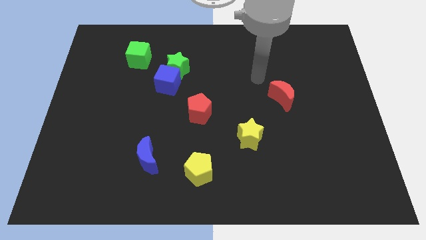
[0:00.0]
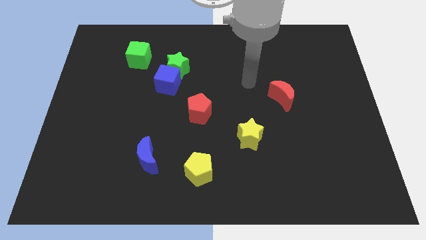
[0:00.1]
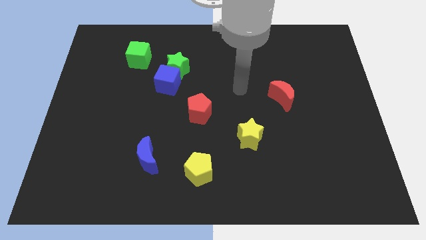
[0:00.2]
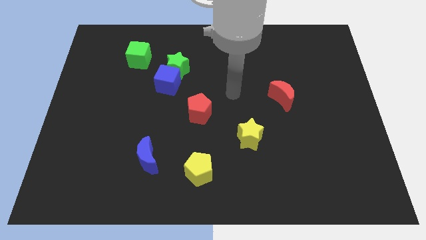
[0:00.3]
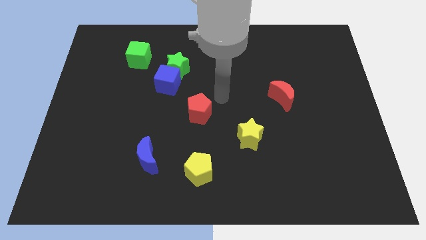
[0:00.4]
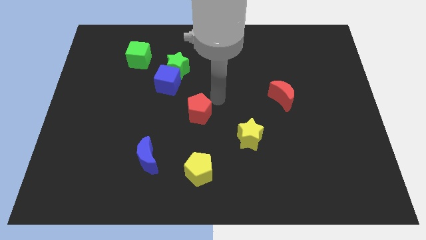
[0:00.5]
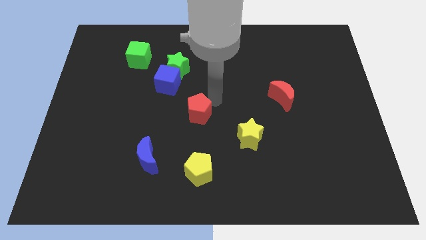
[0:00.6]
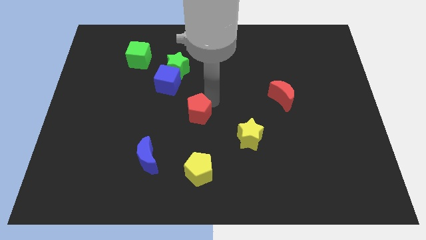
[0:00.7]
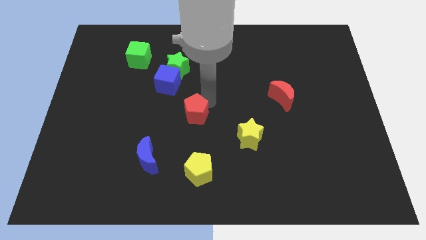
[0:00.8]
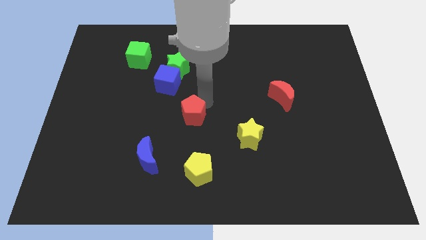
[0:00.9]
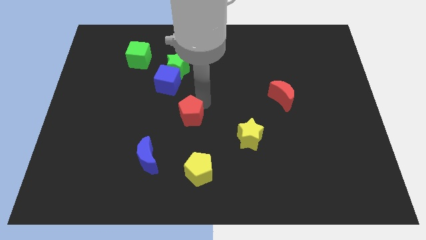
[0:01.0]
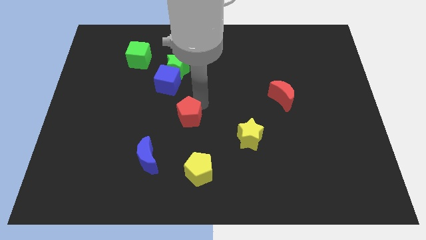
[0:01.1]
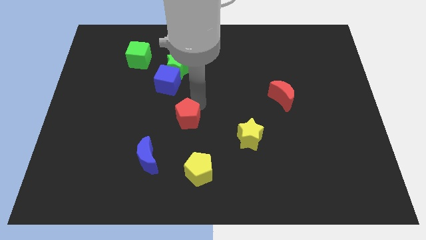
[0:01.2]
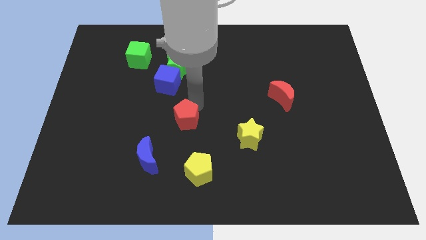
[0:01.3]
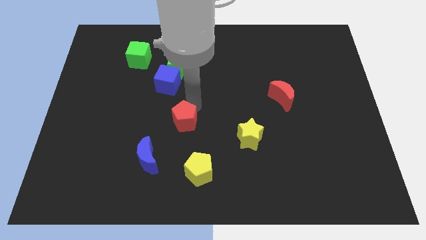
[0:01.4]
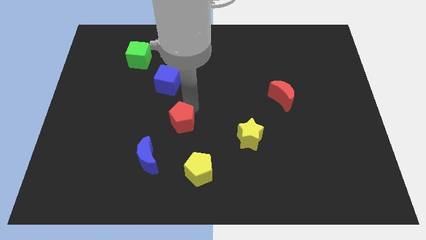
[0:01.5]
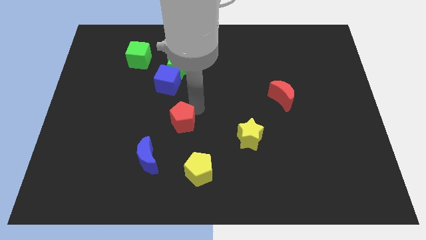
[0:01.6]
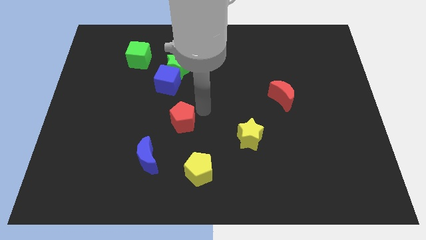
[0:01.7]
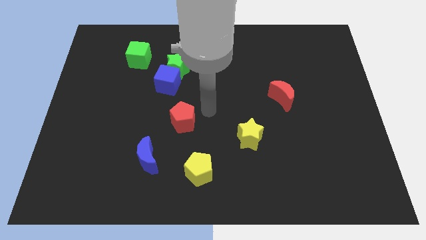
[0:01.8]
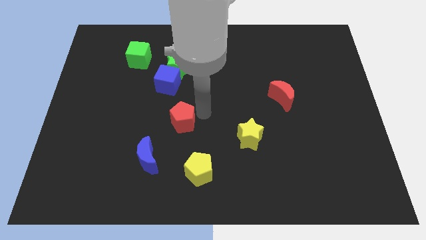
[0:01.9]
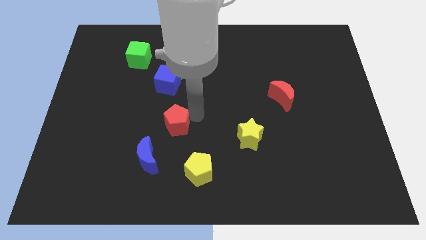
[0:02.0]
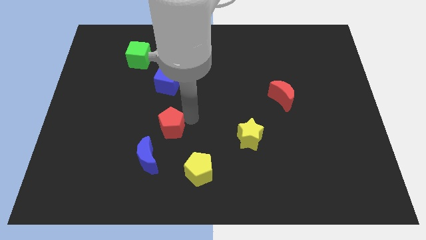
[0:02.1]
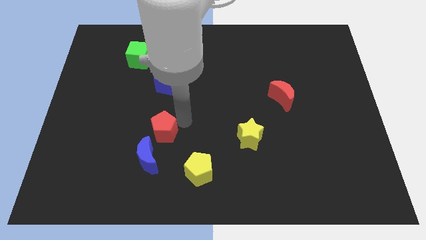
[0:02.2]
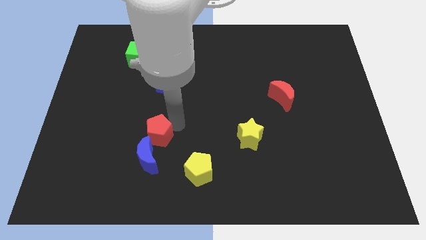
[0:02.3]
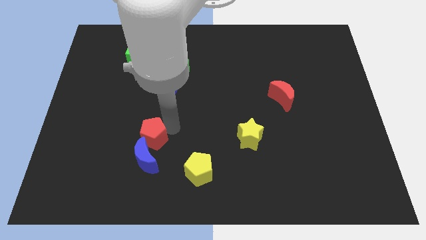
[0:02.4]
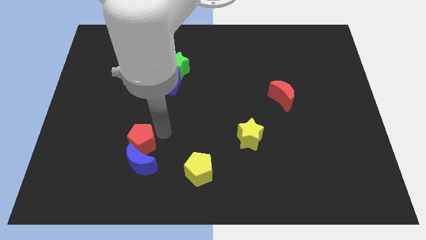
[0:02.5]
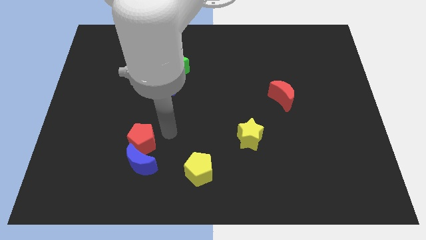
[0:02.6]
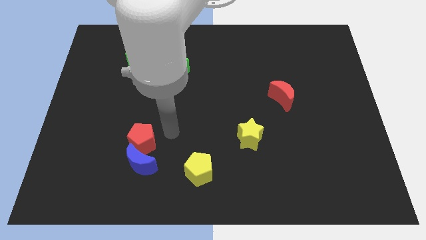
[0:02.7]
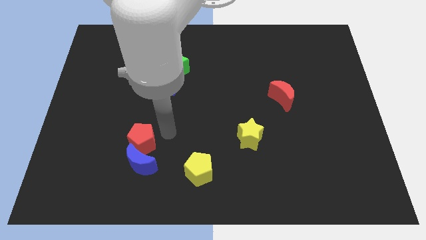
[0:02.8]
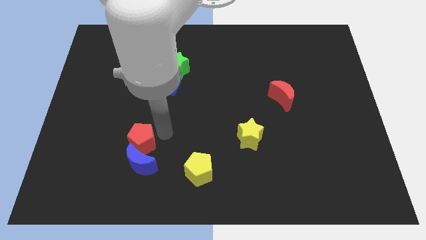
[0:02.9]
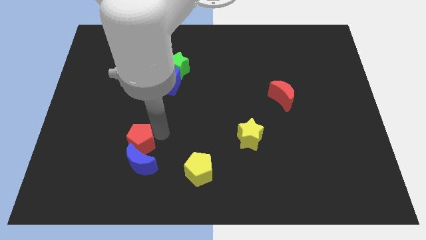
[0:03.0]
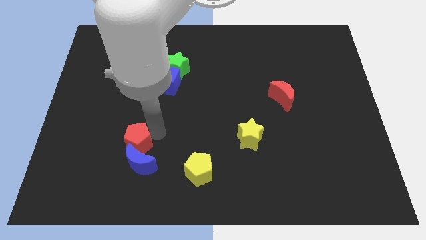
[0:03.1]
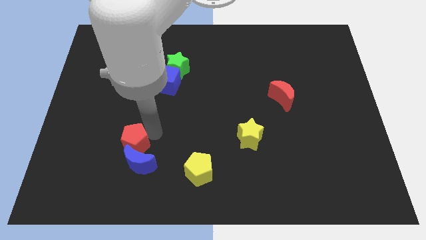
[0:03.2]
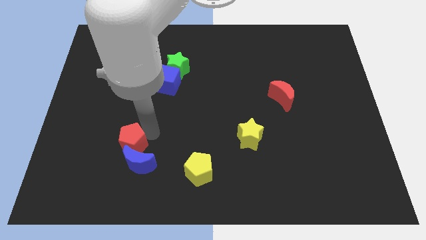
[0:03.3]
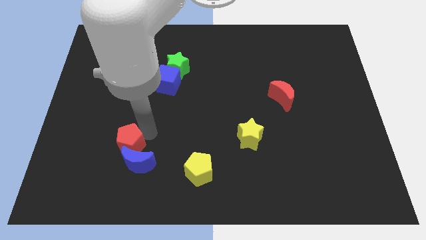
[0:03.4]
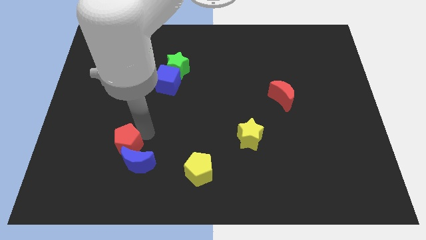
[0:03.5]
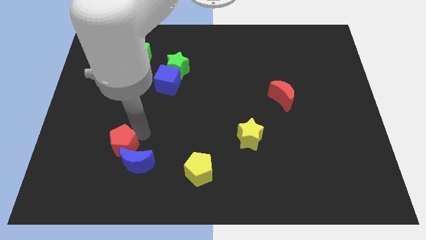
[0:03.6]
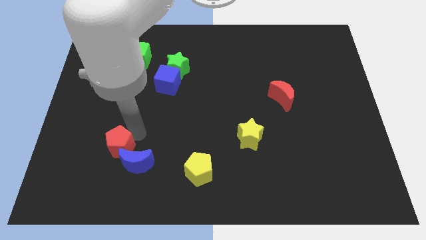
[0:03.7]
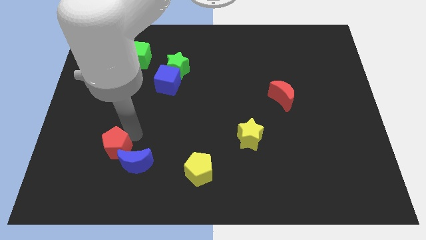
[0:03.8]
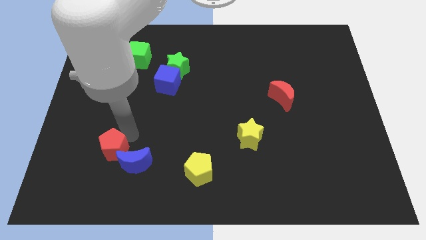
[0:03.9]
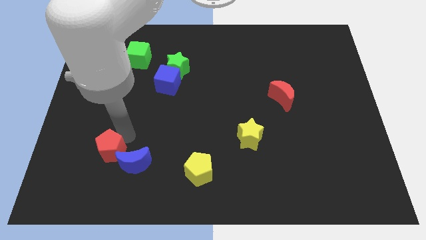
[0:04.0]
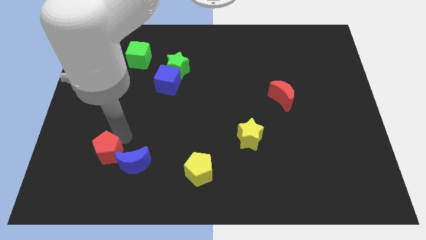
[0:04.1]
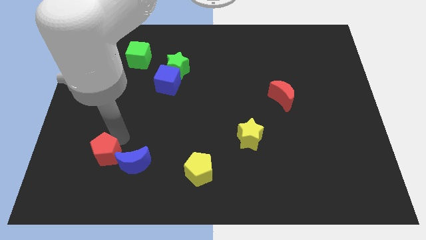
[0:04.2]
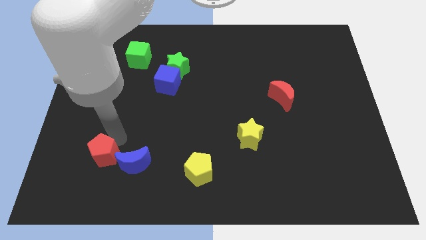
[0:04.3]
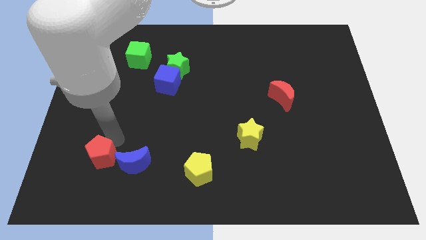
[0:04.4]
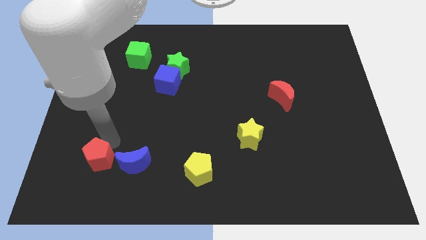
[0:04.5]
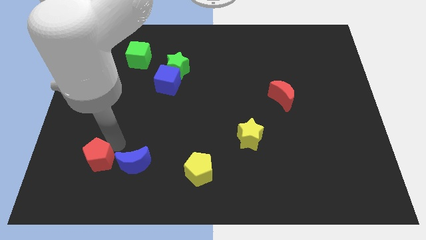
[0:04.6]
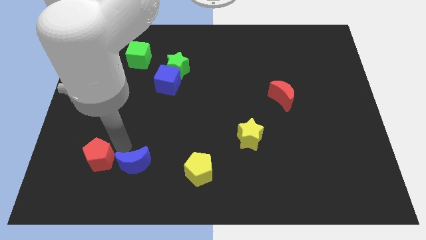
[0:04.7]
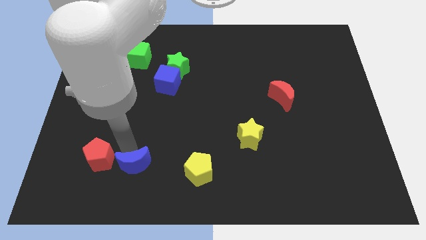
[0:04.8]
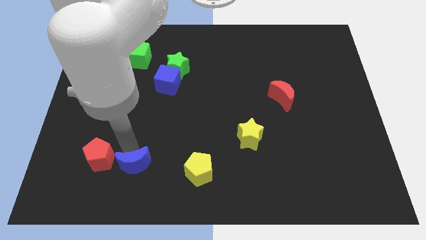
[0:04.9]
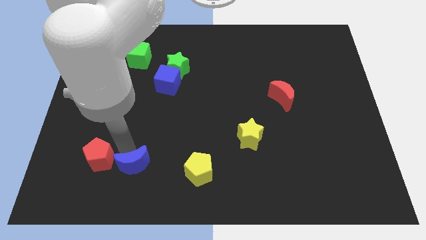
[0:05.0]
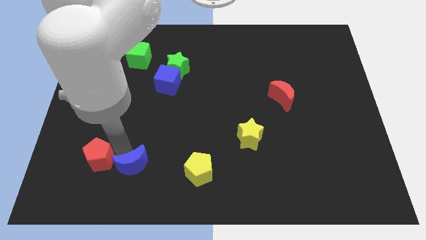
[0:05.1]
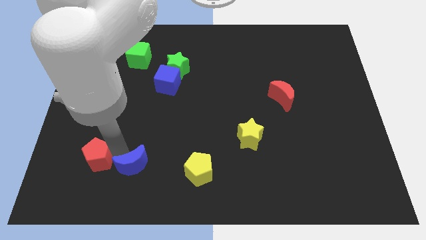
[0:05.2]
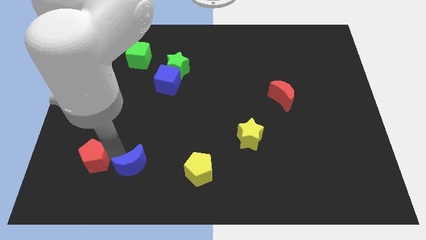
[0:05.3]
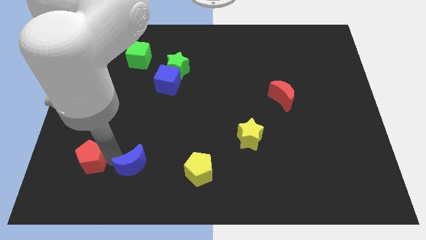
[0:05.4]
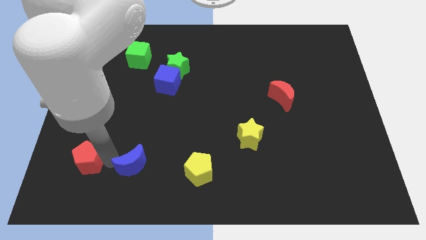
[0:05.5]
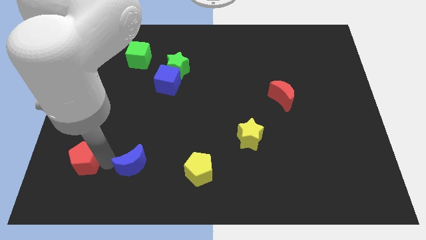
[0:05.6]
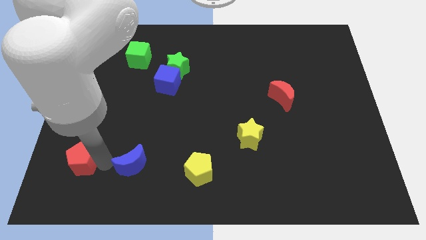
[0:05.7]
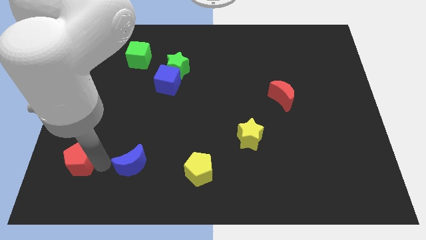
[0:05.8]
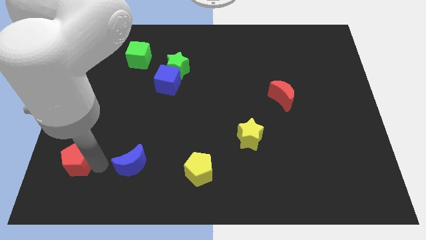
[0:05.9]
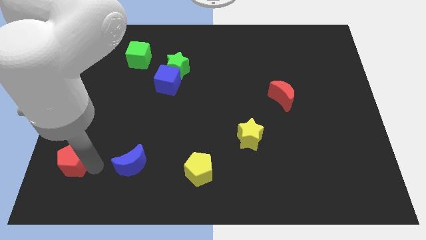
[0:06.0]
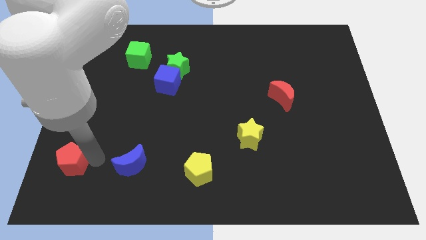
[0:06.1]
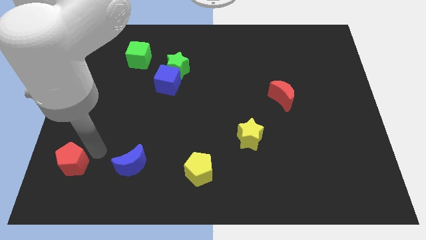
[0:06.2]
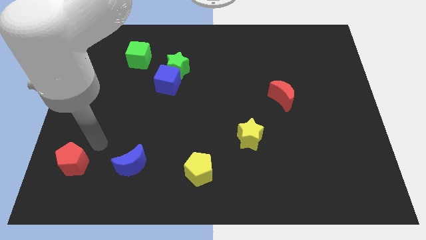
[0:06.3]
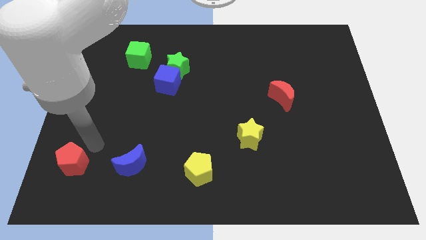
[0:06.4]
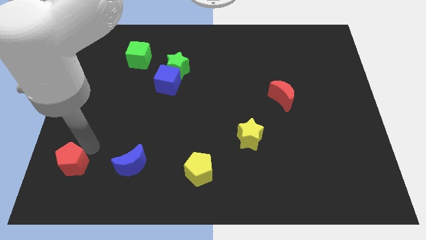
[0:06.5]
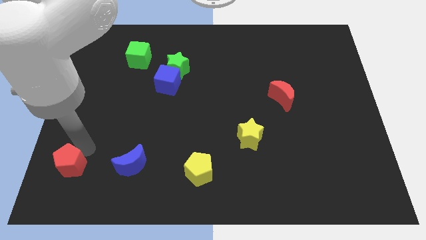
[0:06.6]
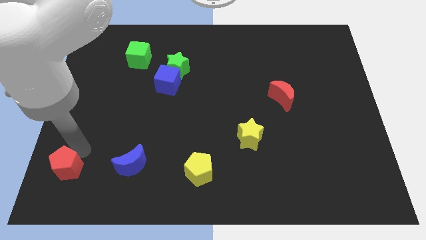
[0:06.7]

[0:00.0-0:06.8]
push the red pentagon to the bottom left
